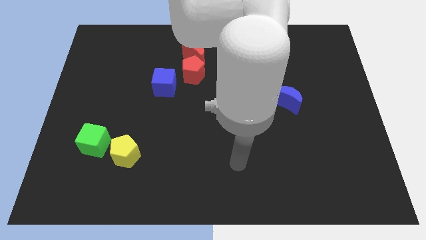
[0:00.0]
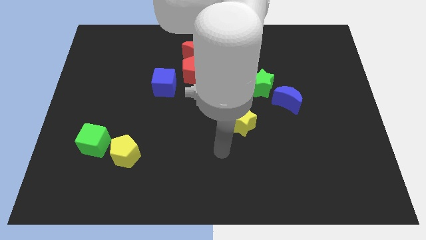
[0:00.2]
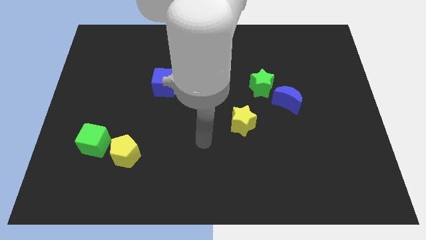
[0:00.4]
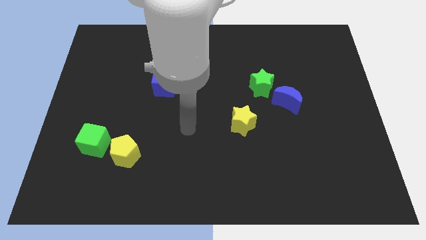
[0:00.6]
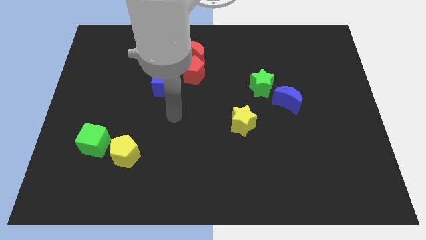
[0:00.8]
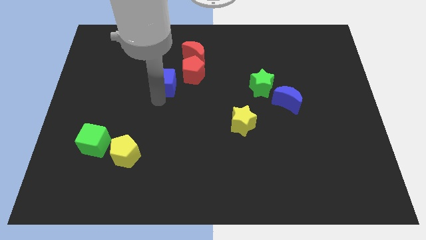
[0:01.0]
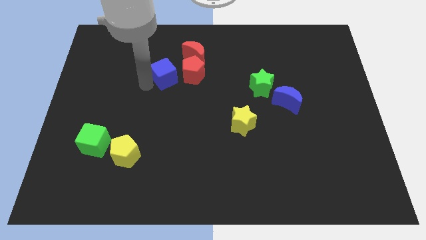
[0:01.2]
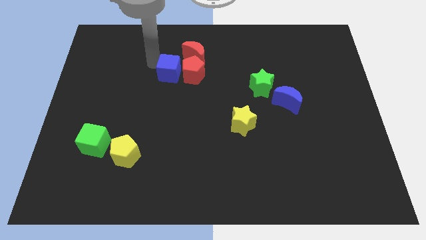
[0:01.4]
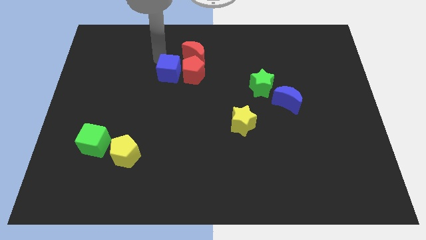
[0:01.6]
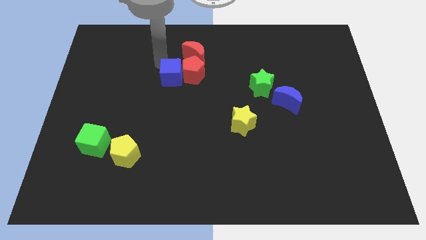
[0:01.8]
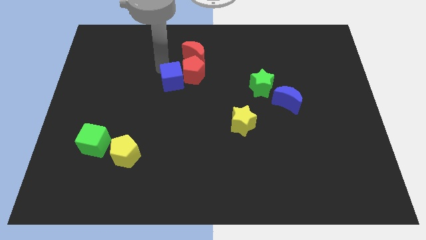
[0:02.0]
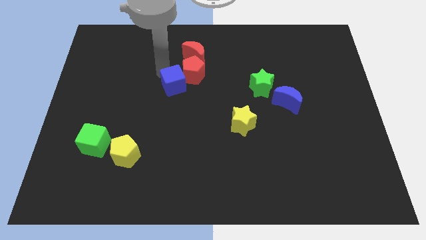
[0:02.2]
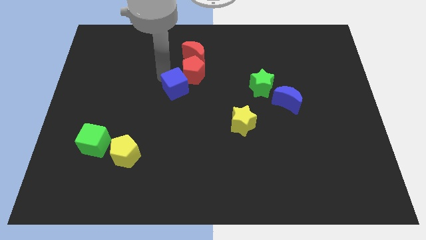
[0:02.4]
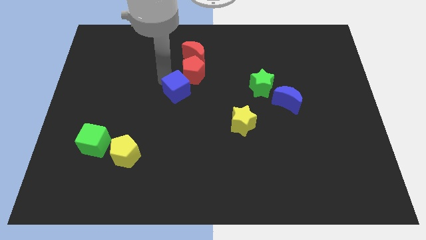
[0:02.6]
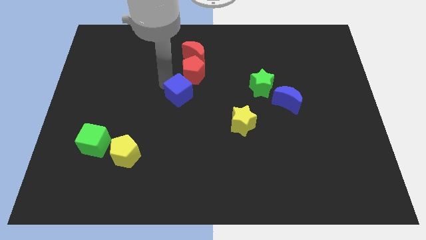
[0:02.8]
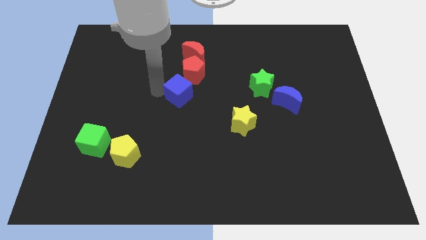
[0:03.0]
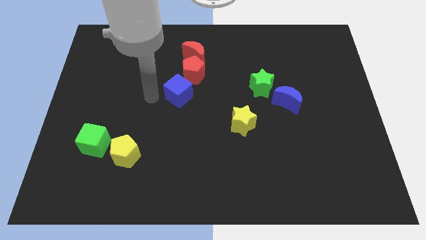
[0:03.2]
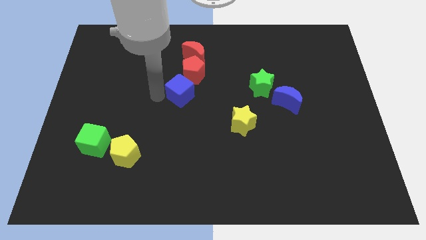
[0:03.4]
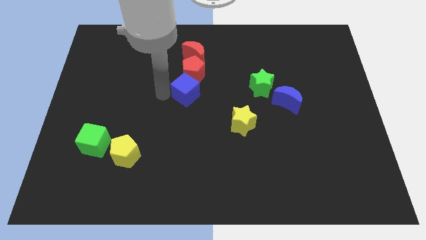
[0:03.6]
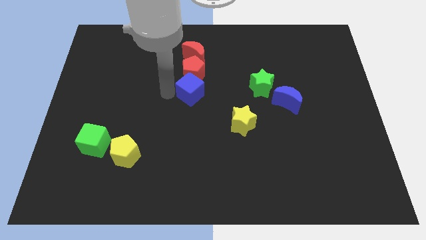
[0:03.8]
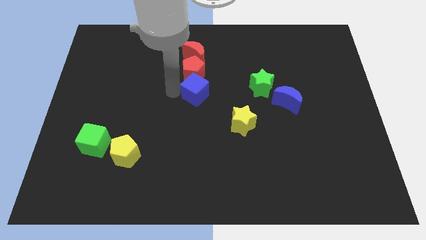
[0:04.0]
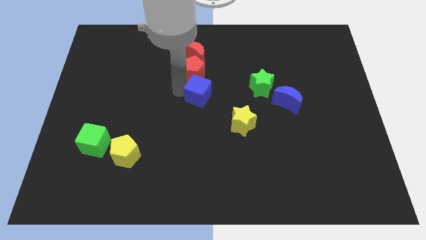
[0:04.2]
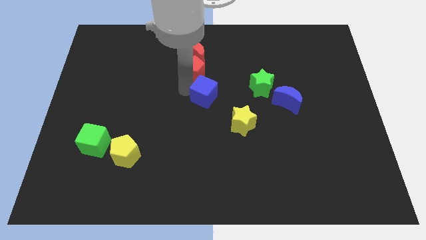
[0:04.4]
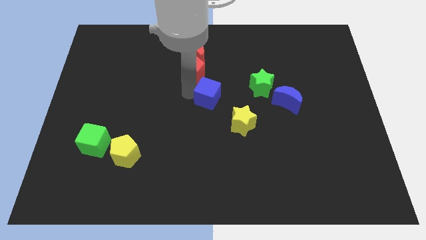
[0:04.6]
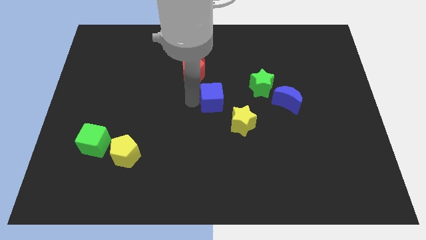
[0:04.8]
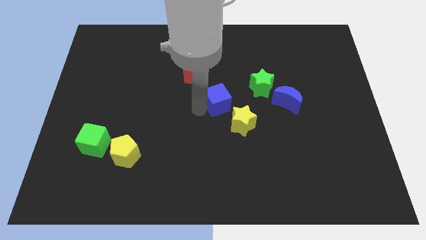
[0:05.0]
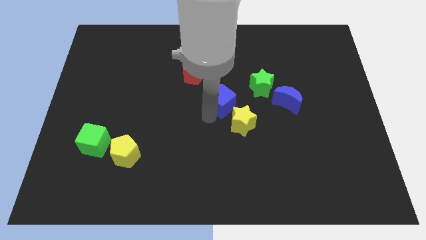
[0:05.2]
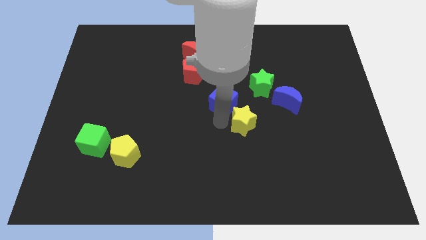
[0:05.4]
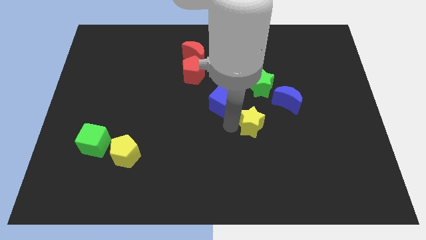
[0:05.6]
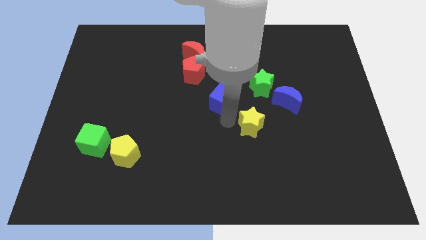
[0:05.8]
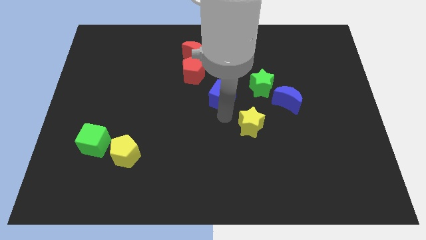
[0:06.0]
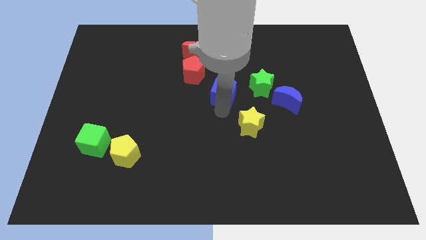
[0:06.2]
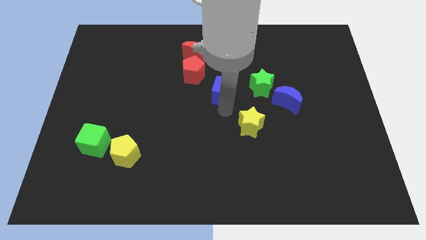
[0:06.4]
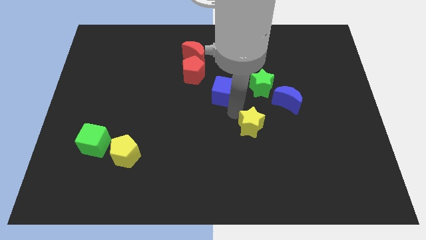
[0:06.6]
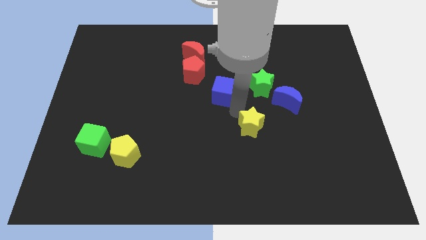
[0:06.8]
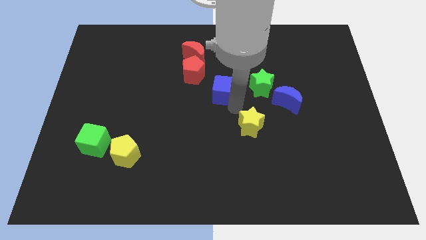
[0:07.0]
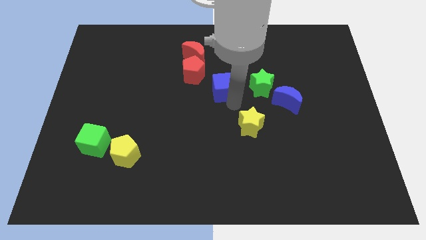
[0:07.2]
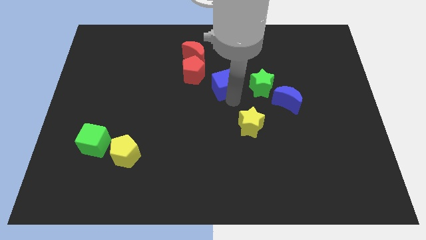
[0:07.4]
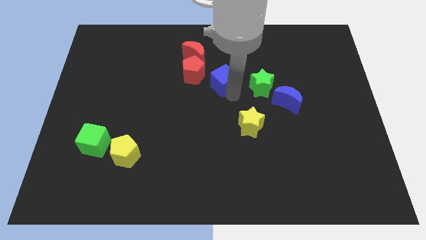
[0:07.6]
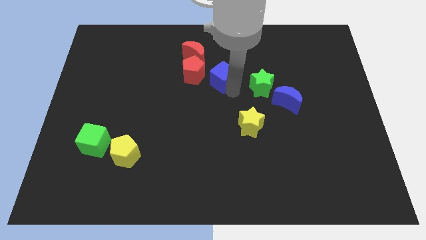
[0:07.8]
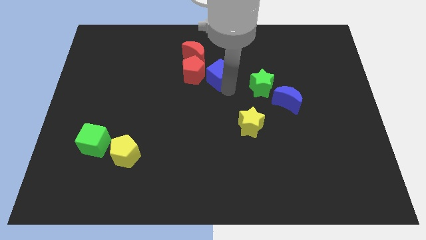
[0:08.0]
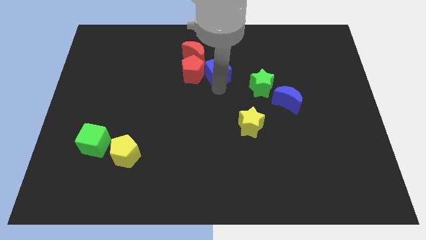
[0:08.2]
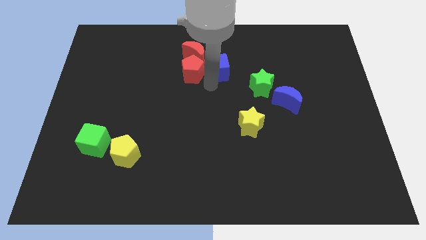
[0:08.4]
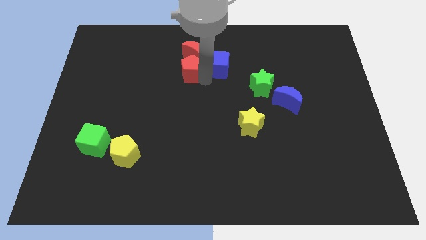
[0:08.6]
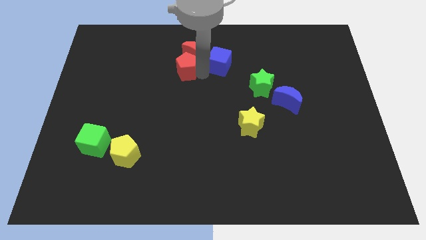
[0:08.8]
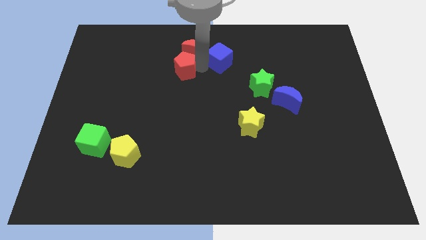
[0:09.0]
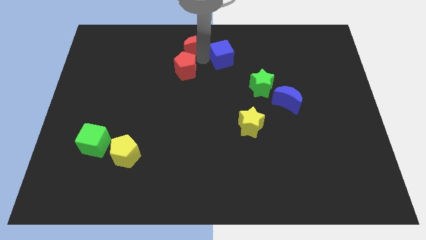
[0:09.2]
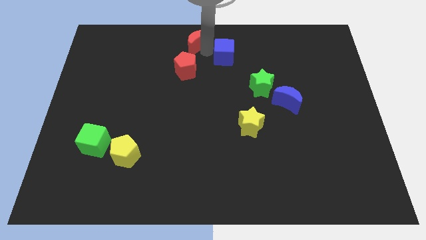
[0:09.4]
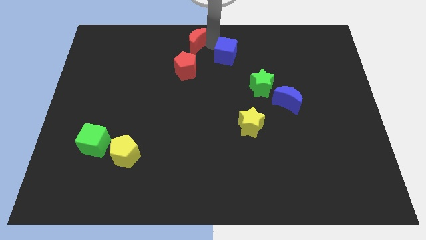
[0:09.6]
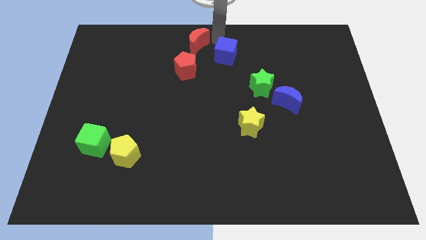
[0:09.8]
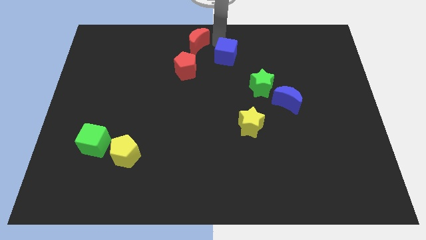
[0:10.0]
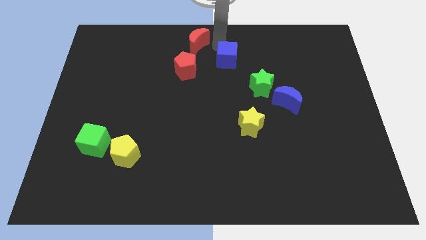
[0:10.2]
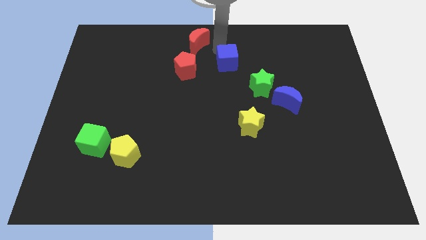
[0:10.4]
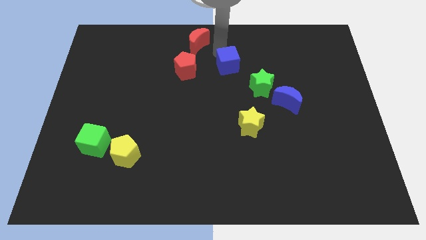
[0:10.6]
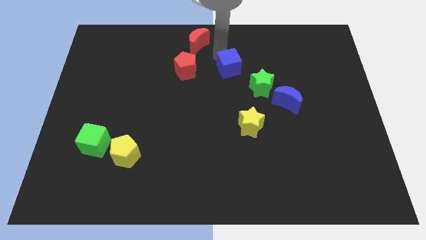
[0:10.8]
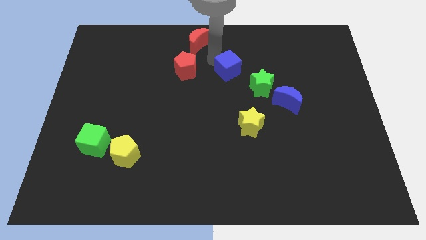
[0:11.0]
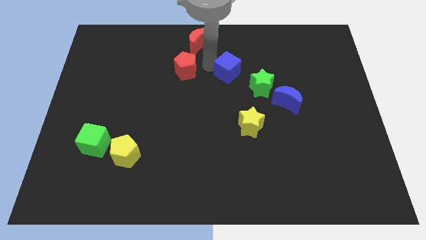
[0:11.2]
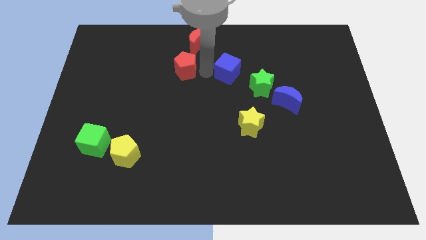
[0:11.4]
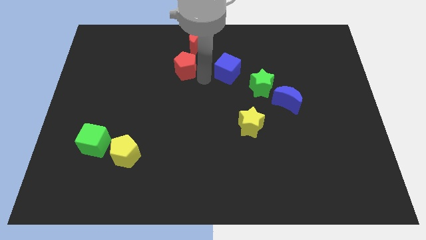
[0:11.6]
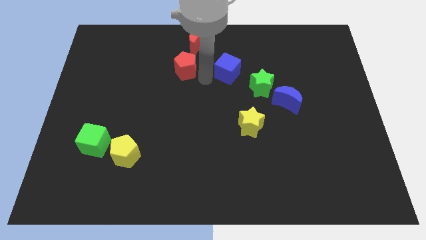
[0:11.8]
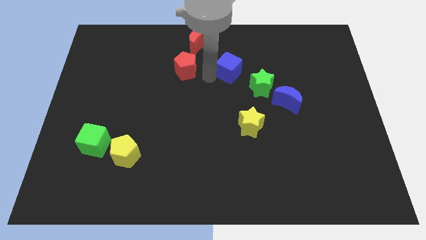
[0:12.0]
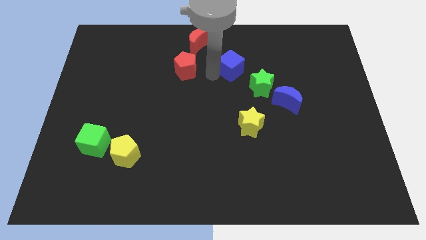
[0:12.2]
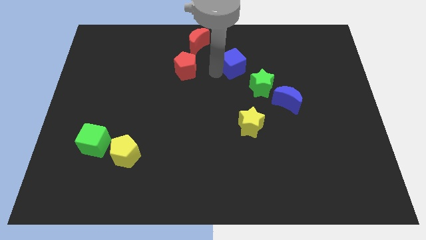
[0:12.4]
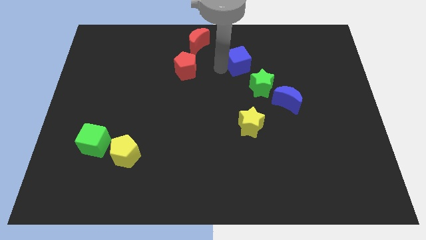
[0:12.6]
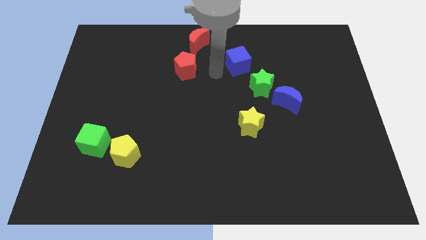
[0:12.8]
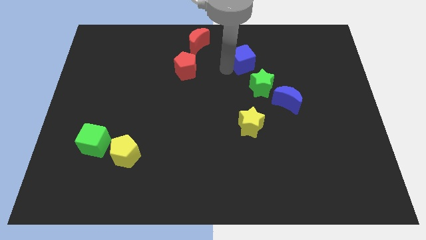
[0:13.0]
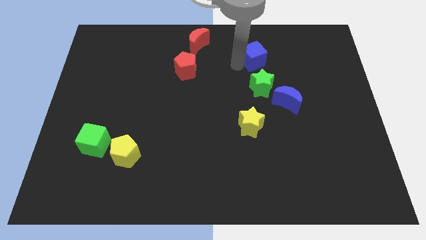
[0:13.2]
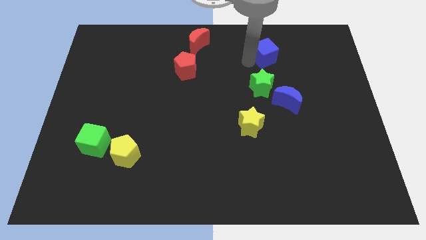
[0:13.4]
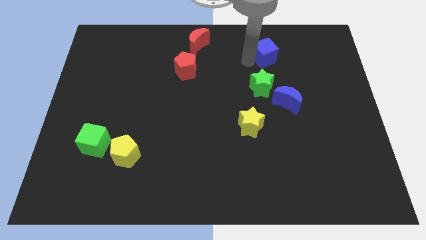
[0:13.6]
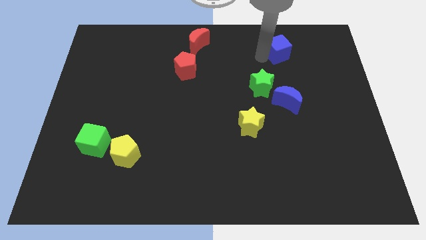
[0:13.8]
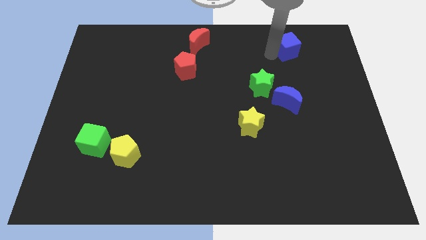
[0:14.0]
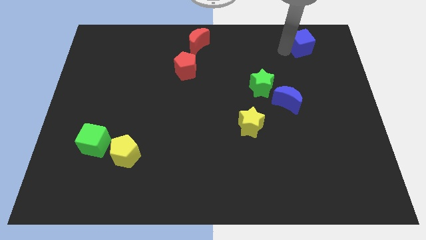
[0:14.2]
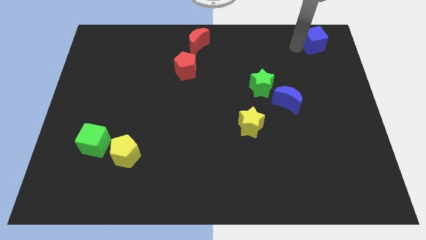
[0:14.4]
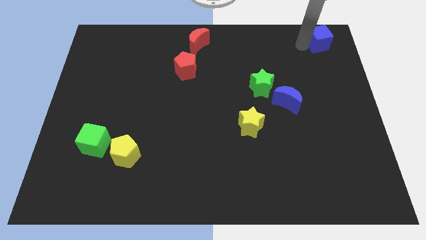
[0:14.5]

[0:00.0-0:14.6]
push the blue cube to the top right corner
